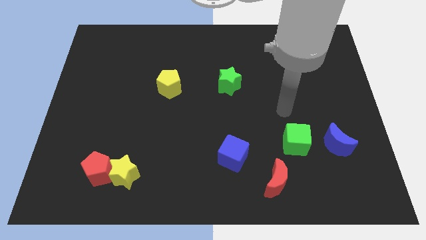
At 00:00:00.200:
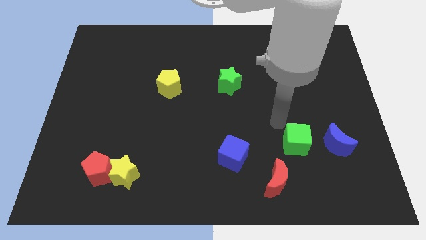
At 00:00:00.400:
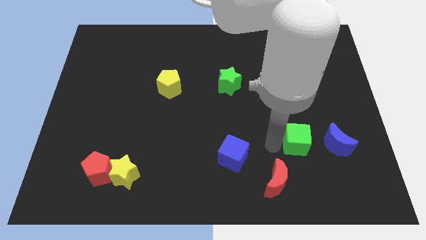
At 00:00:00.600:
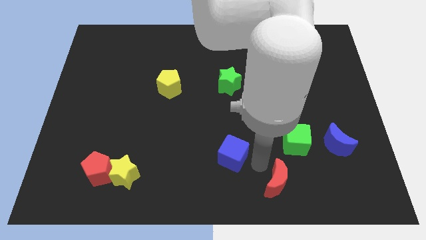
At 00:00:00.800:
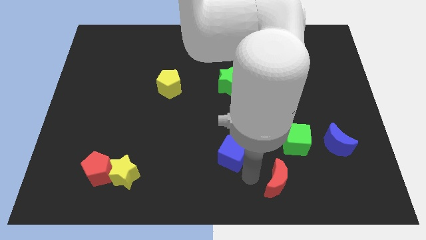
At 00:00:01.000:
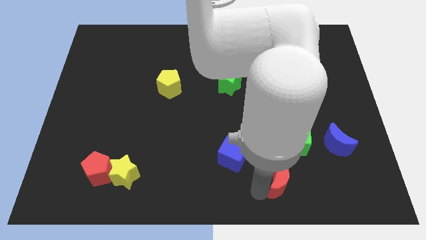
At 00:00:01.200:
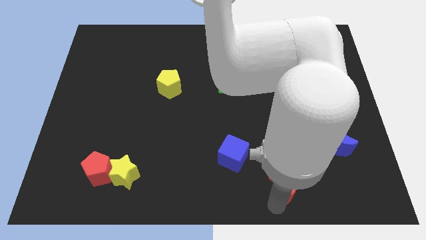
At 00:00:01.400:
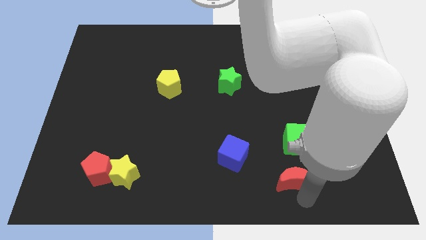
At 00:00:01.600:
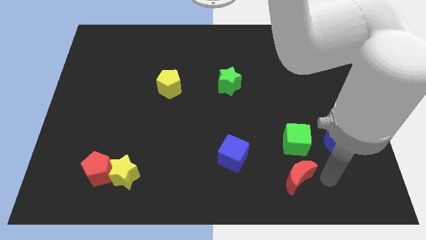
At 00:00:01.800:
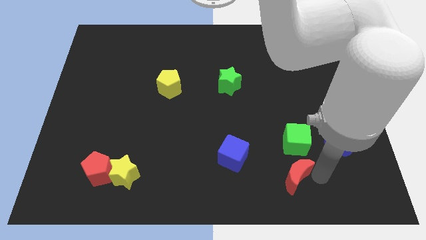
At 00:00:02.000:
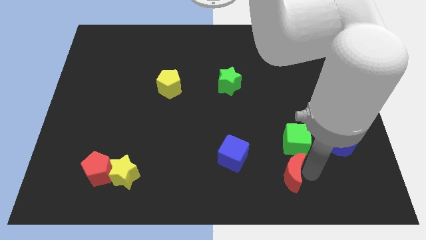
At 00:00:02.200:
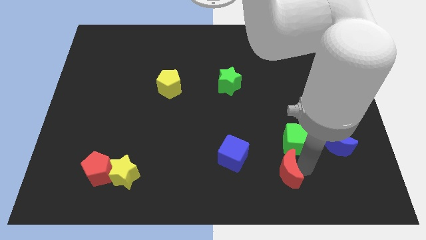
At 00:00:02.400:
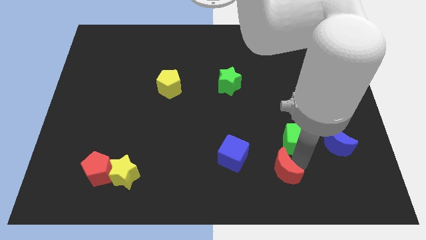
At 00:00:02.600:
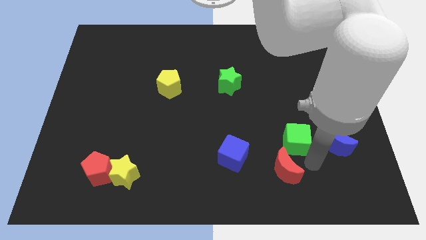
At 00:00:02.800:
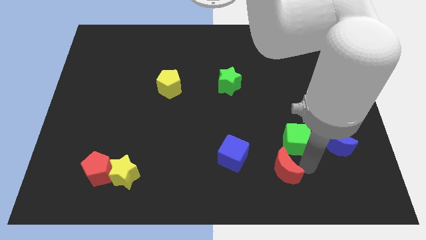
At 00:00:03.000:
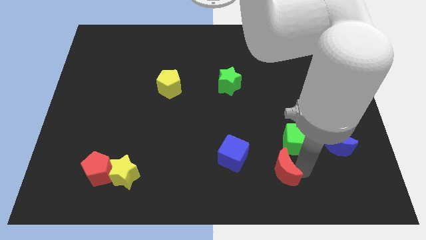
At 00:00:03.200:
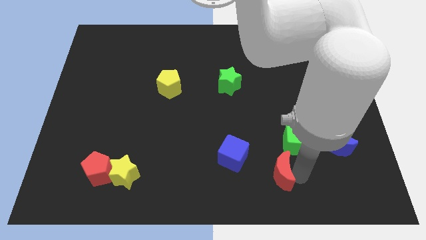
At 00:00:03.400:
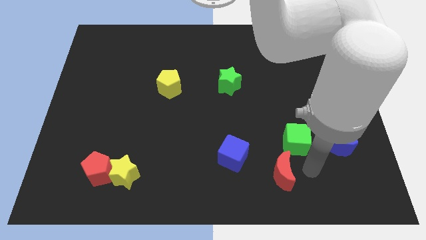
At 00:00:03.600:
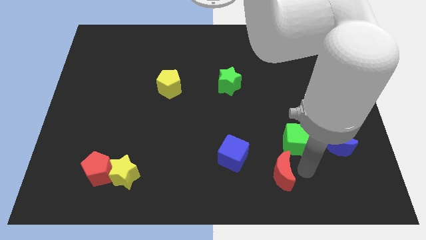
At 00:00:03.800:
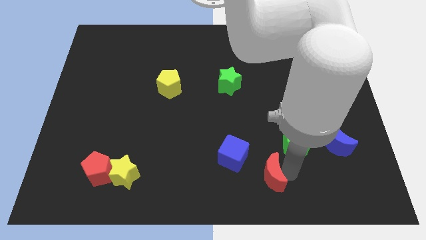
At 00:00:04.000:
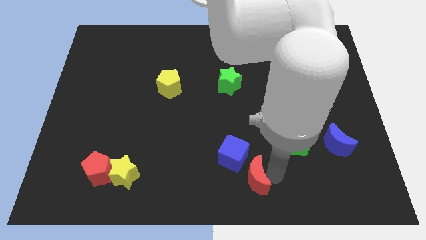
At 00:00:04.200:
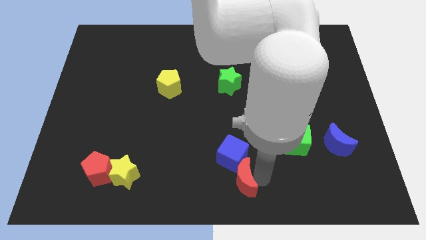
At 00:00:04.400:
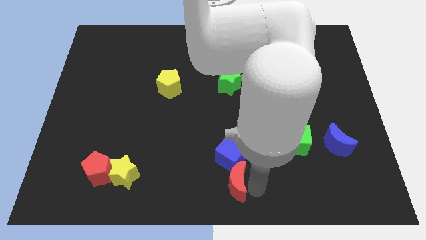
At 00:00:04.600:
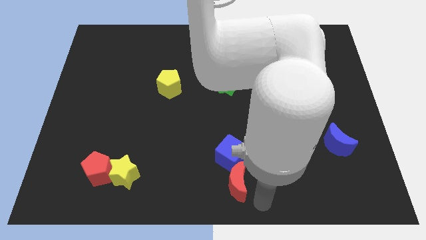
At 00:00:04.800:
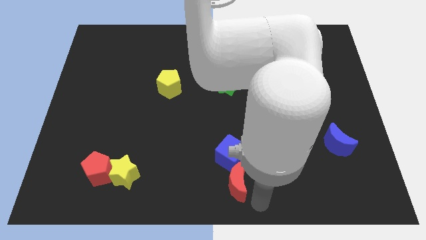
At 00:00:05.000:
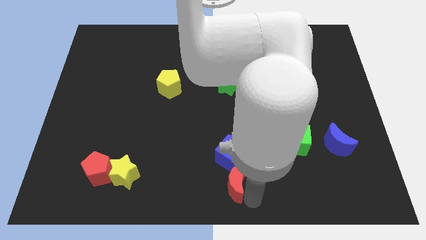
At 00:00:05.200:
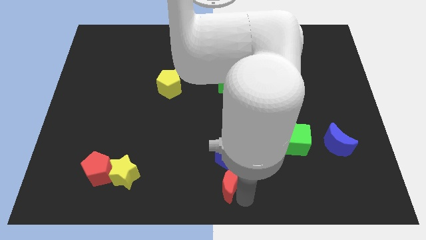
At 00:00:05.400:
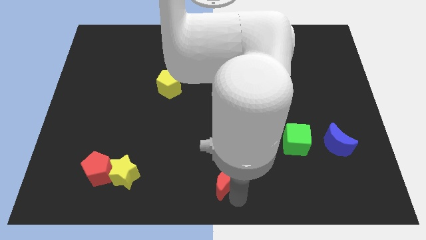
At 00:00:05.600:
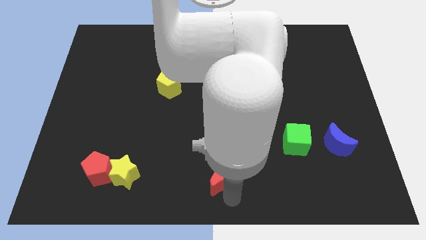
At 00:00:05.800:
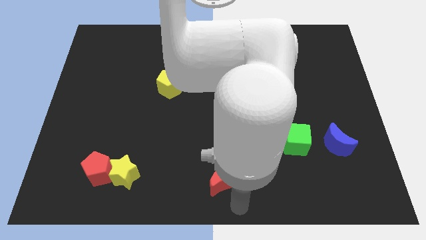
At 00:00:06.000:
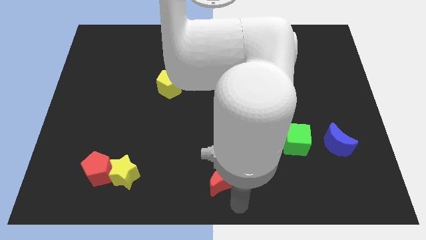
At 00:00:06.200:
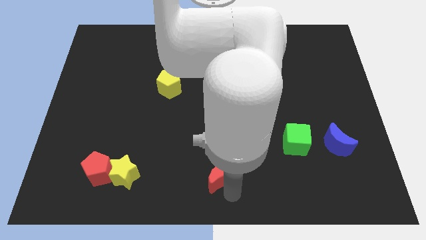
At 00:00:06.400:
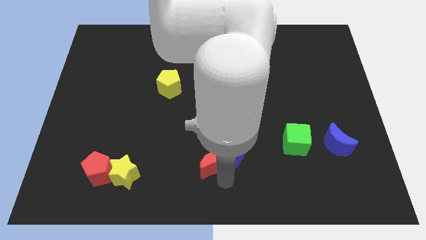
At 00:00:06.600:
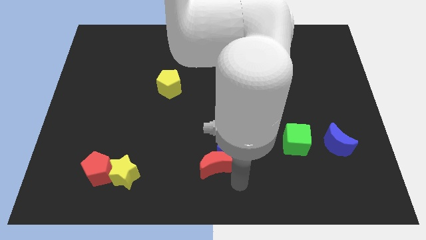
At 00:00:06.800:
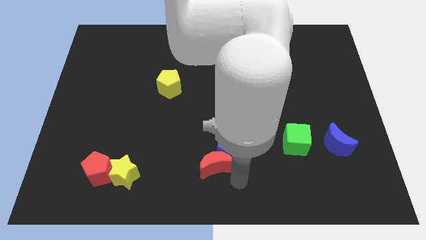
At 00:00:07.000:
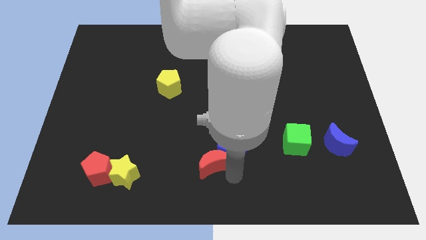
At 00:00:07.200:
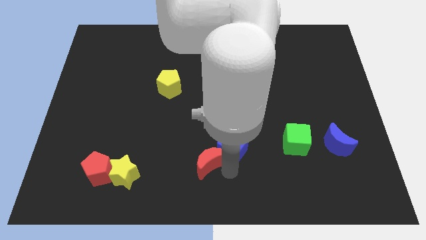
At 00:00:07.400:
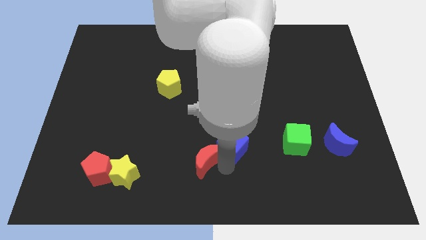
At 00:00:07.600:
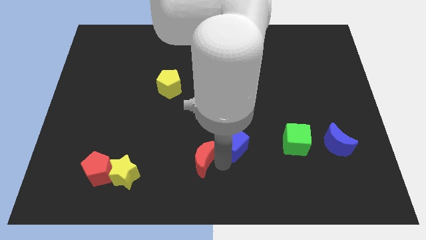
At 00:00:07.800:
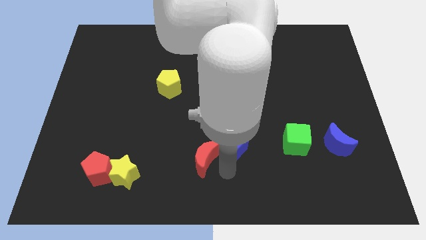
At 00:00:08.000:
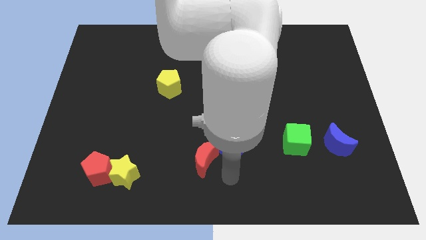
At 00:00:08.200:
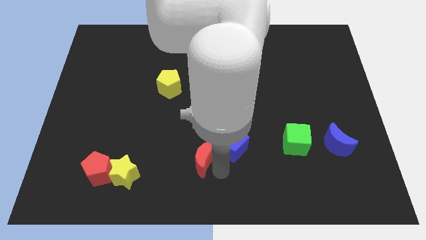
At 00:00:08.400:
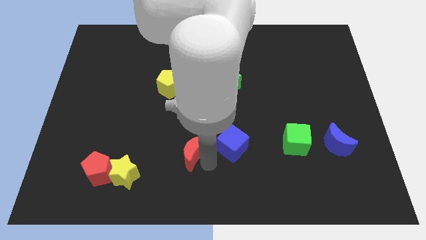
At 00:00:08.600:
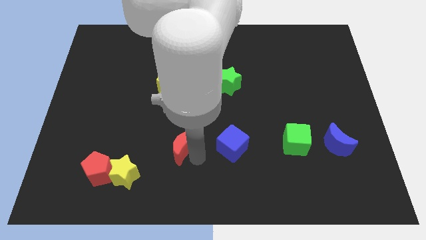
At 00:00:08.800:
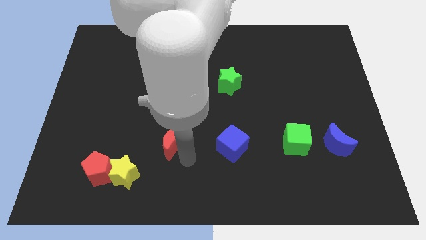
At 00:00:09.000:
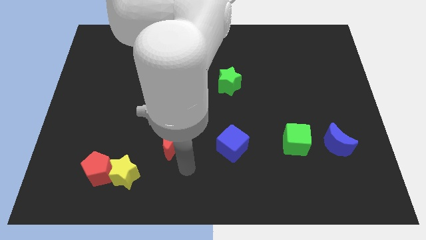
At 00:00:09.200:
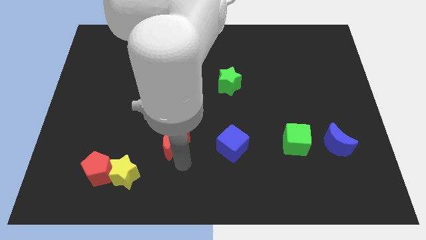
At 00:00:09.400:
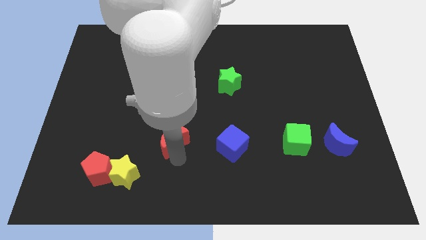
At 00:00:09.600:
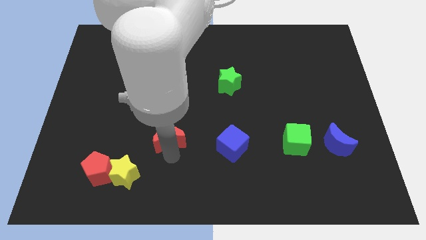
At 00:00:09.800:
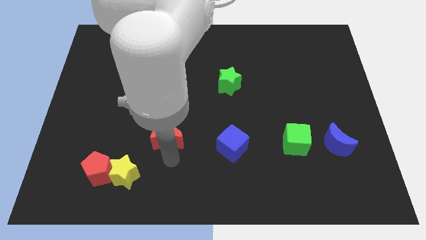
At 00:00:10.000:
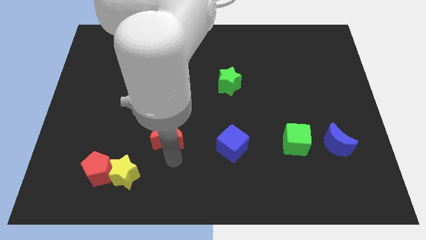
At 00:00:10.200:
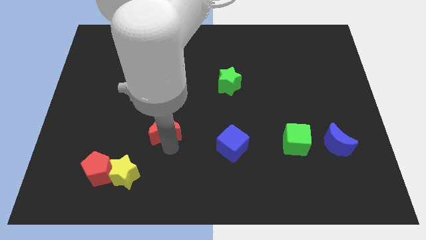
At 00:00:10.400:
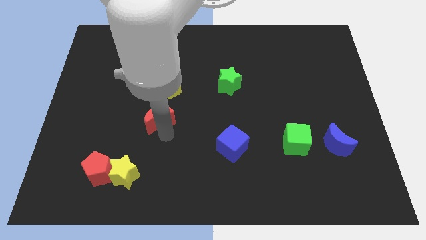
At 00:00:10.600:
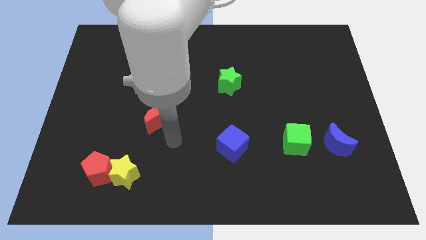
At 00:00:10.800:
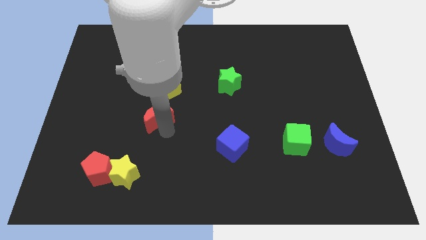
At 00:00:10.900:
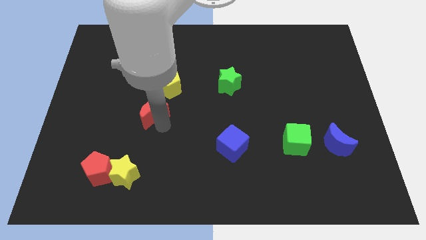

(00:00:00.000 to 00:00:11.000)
move the red moon to the bottom left of the yellow pentagon

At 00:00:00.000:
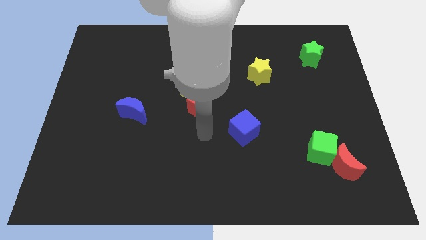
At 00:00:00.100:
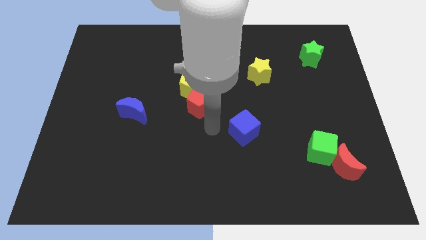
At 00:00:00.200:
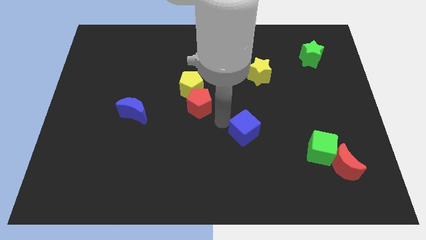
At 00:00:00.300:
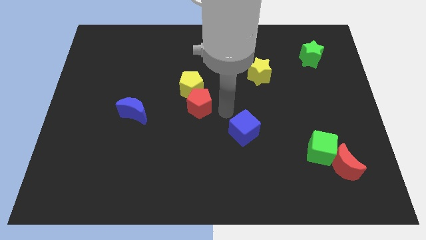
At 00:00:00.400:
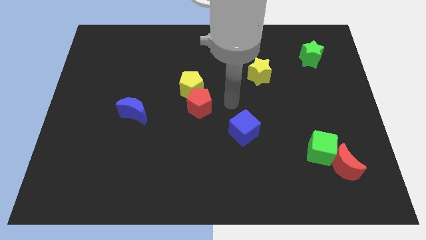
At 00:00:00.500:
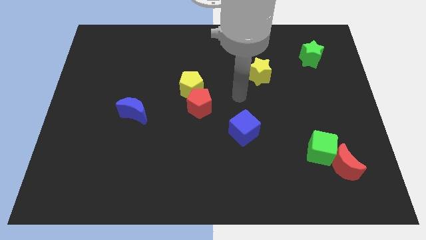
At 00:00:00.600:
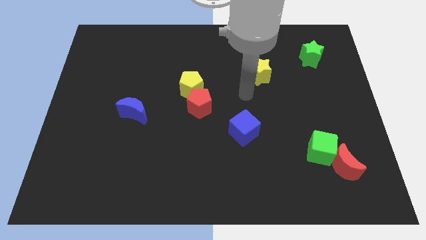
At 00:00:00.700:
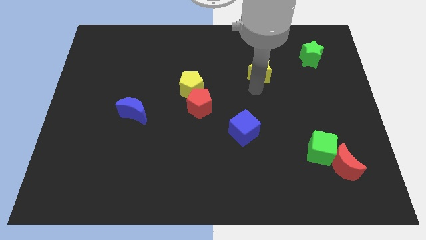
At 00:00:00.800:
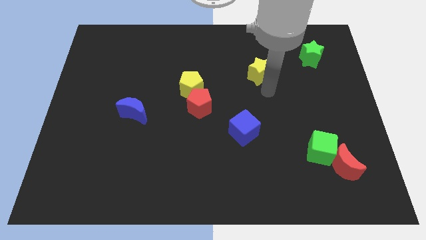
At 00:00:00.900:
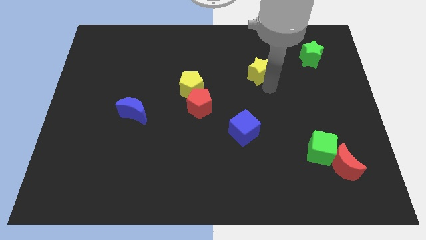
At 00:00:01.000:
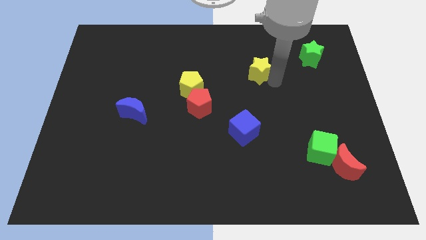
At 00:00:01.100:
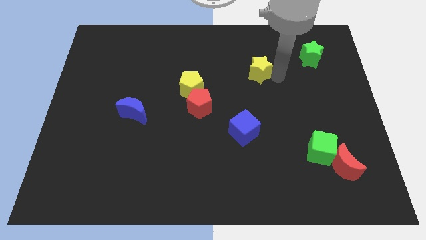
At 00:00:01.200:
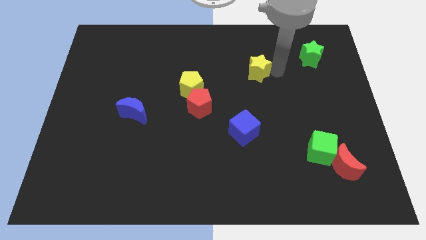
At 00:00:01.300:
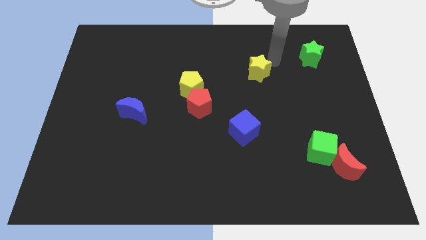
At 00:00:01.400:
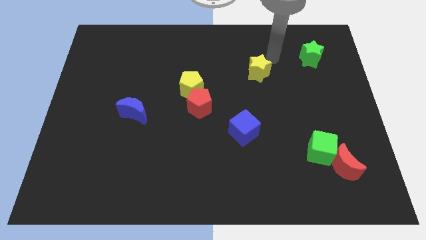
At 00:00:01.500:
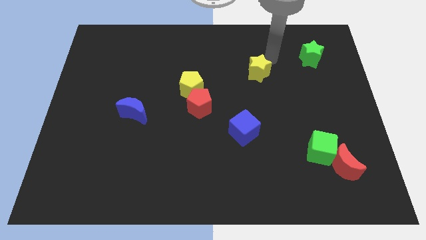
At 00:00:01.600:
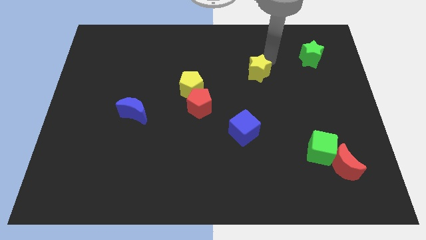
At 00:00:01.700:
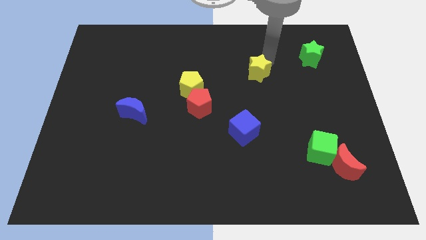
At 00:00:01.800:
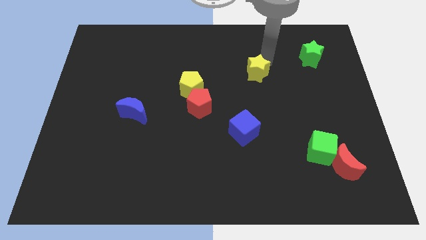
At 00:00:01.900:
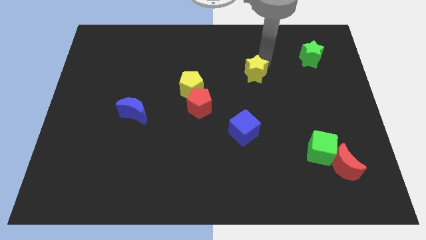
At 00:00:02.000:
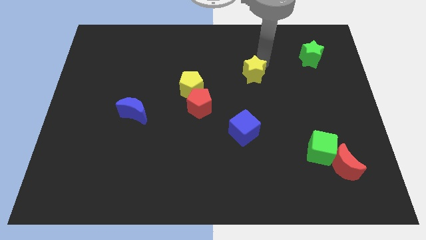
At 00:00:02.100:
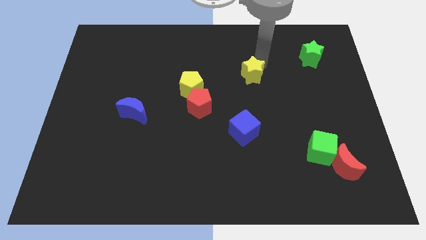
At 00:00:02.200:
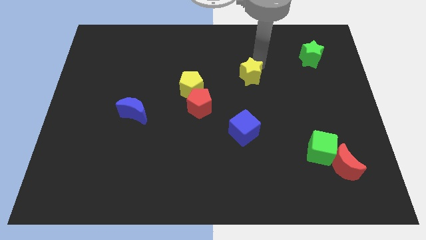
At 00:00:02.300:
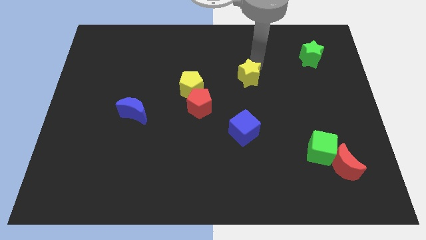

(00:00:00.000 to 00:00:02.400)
slide the yellow star right of the yellow pentagon
